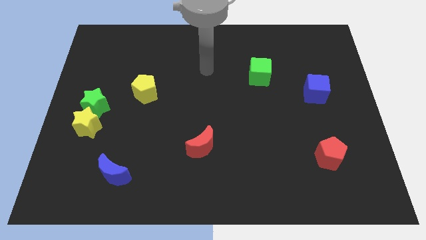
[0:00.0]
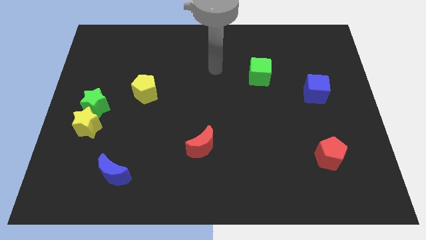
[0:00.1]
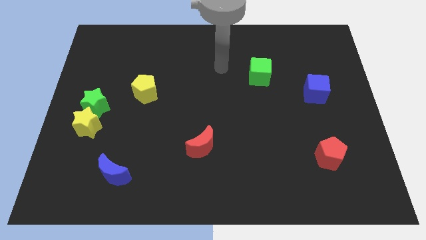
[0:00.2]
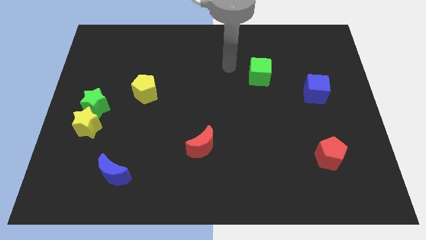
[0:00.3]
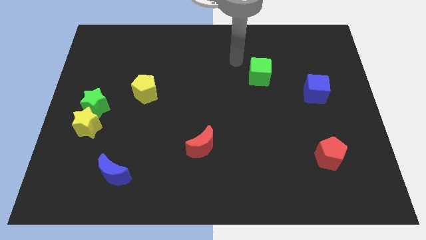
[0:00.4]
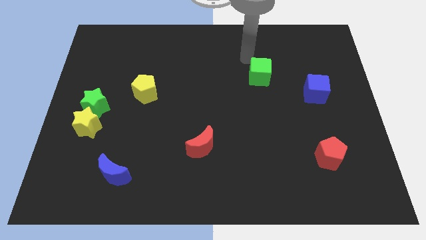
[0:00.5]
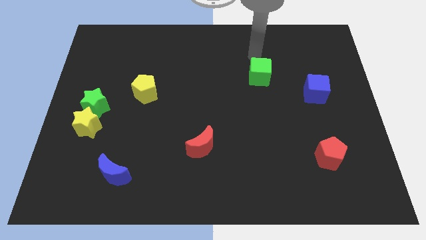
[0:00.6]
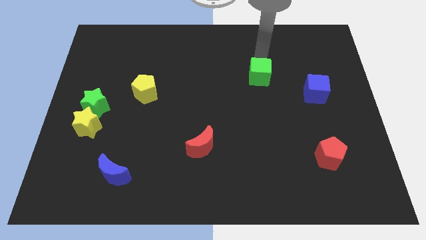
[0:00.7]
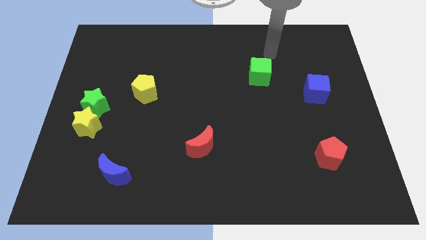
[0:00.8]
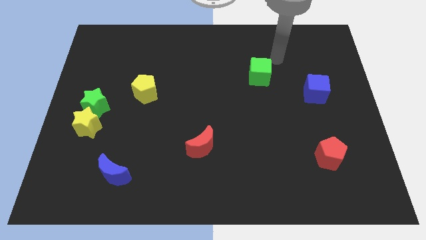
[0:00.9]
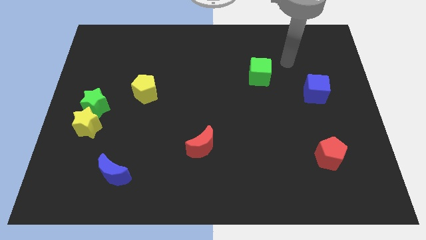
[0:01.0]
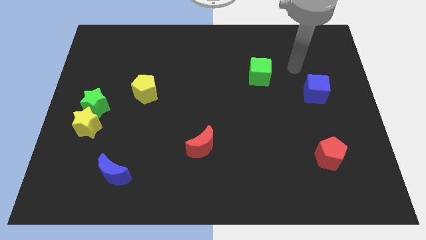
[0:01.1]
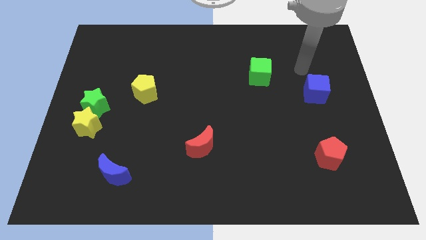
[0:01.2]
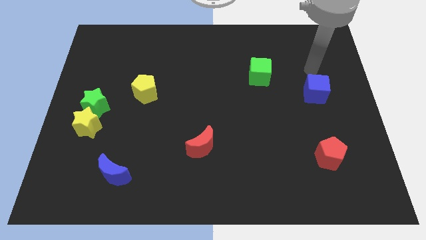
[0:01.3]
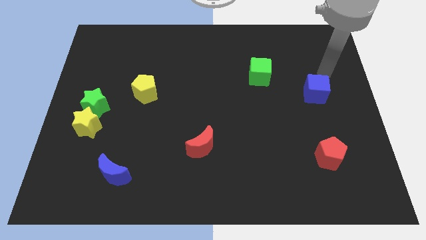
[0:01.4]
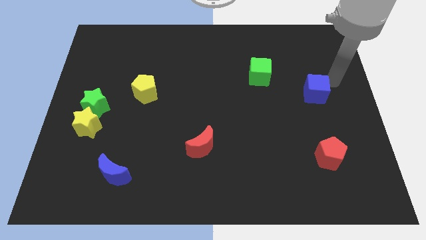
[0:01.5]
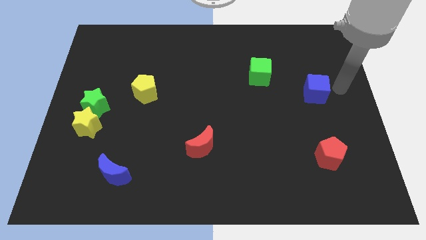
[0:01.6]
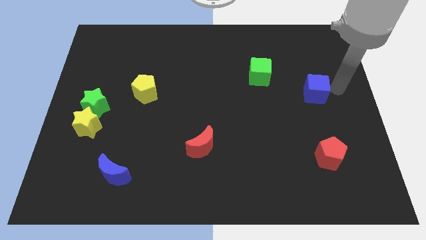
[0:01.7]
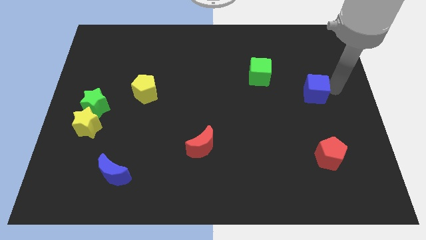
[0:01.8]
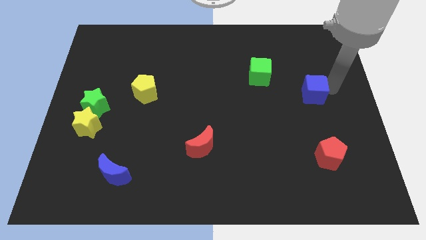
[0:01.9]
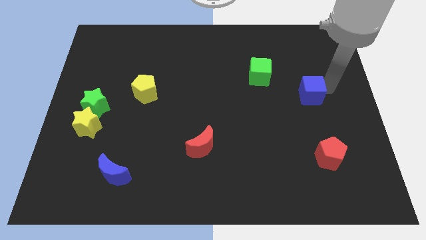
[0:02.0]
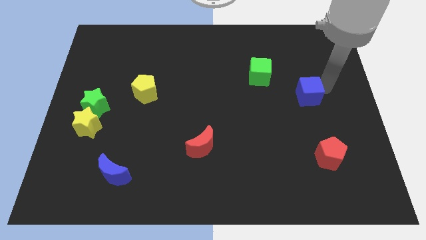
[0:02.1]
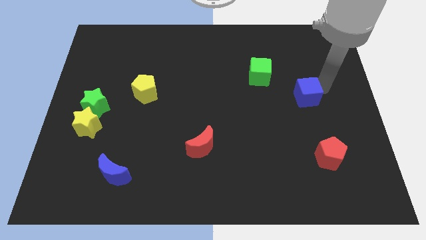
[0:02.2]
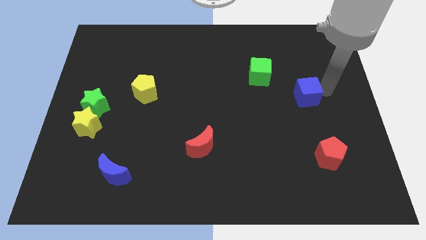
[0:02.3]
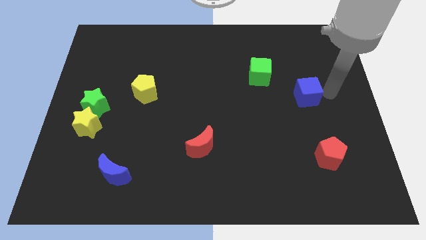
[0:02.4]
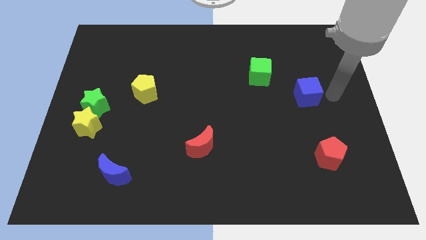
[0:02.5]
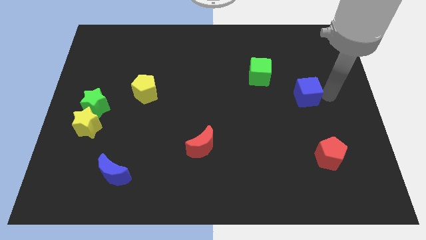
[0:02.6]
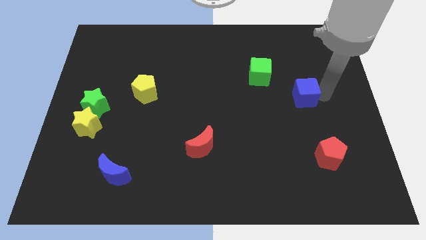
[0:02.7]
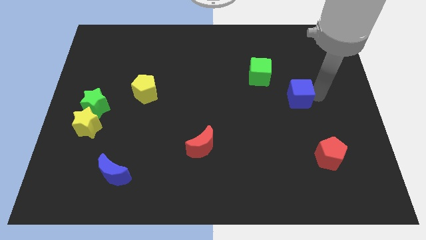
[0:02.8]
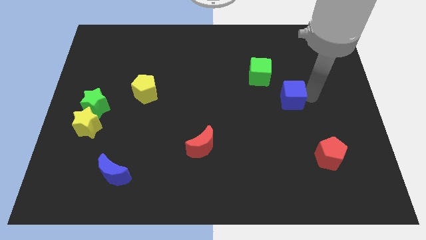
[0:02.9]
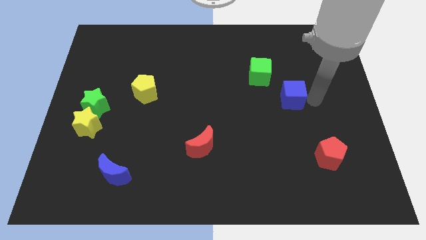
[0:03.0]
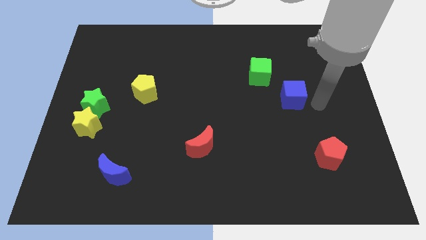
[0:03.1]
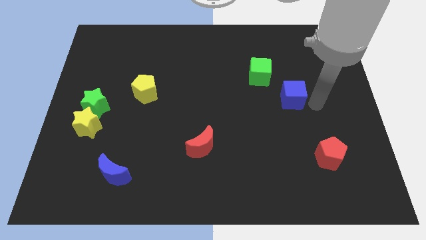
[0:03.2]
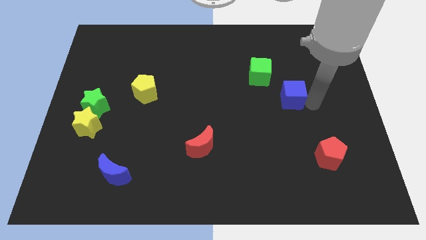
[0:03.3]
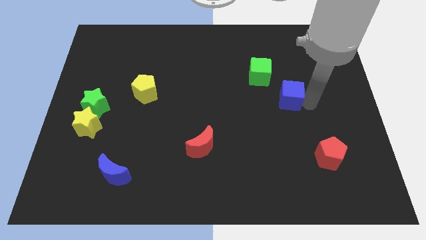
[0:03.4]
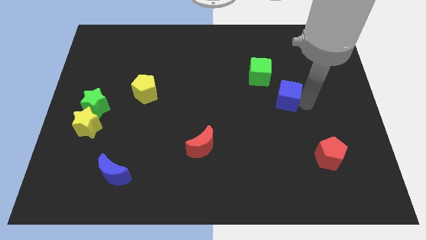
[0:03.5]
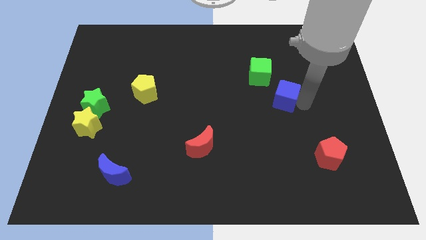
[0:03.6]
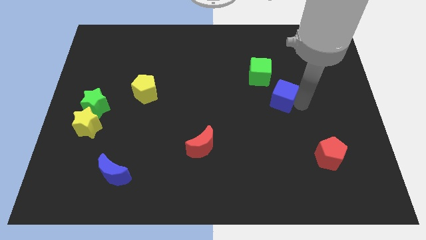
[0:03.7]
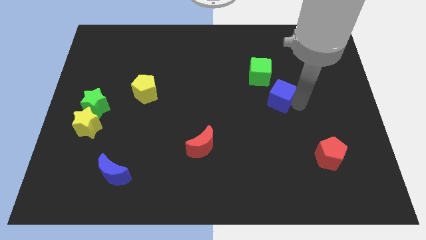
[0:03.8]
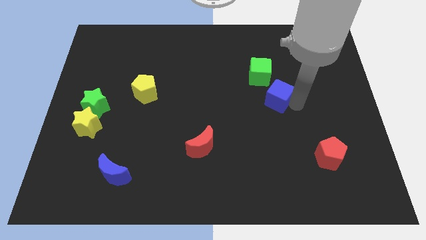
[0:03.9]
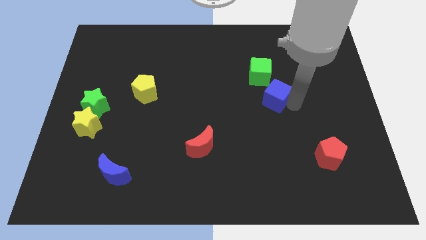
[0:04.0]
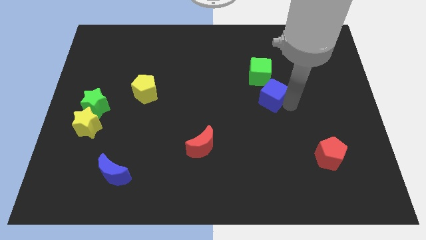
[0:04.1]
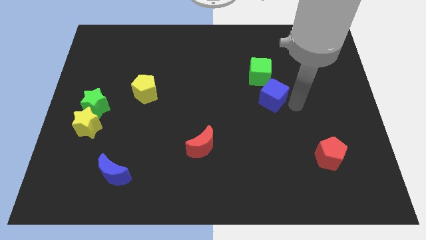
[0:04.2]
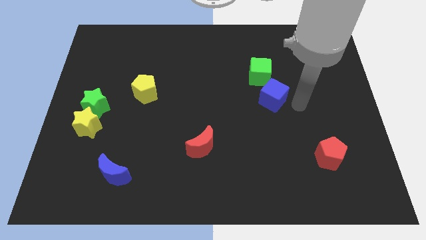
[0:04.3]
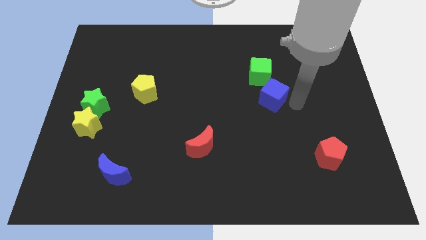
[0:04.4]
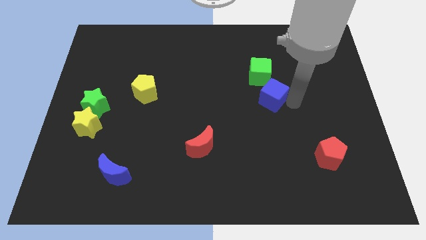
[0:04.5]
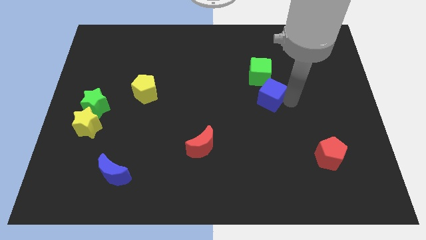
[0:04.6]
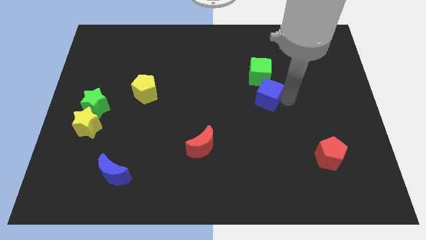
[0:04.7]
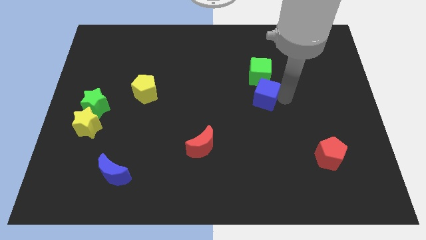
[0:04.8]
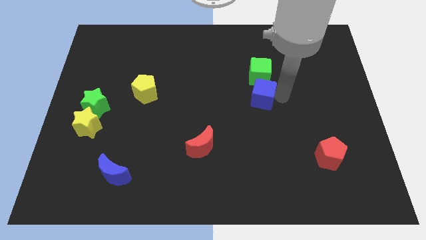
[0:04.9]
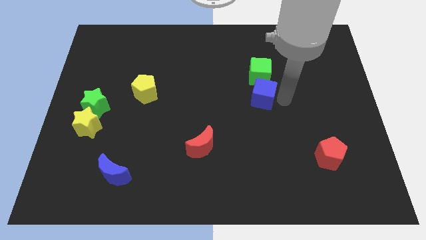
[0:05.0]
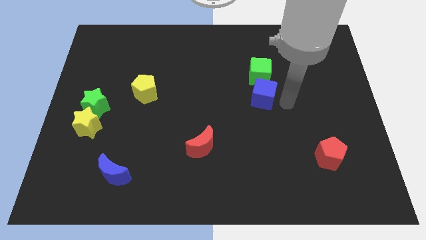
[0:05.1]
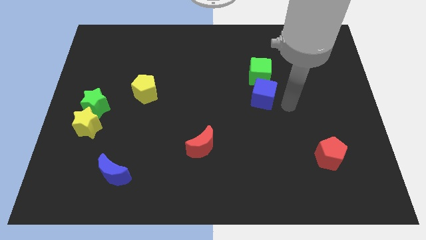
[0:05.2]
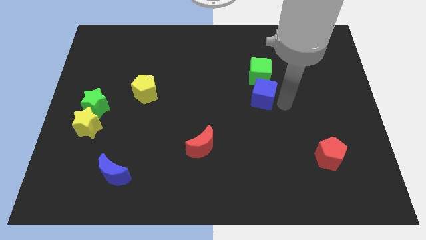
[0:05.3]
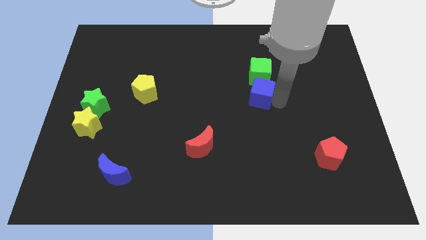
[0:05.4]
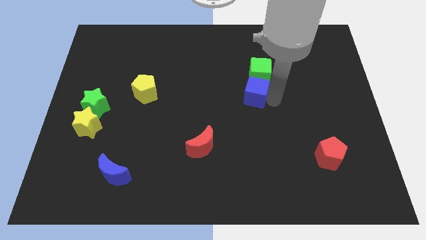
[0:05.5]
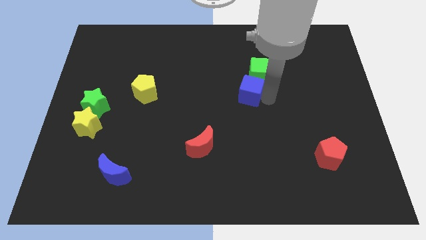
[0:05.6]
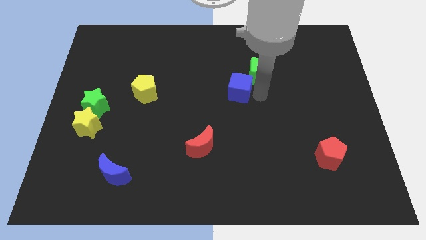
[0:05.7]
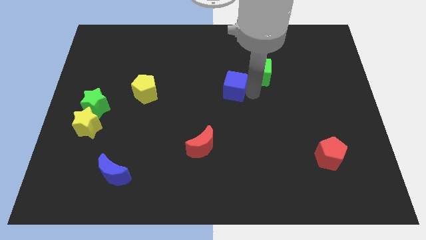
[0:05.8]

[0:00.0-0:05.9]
push the blue cube to the left

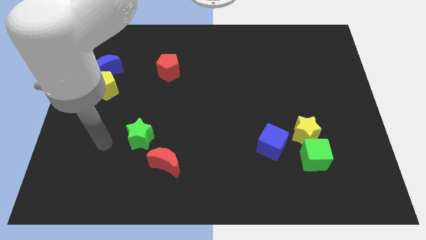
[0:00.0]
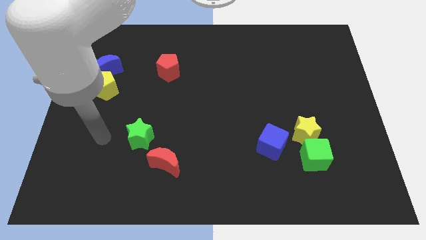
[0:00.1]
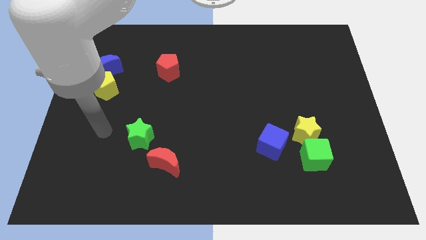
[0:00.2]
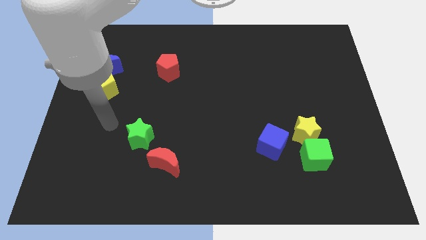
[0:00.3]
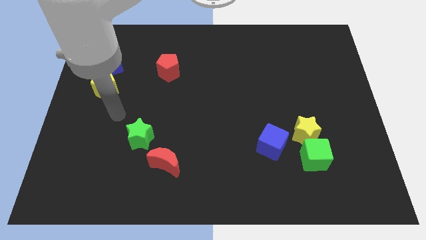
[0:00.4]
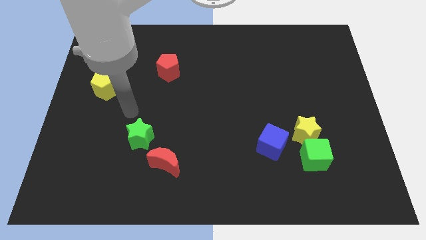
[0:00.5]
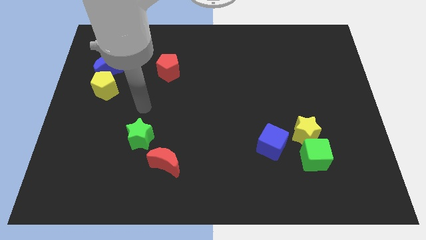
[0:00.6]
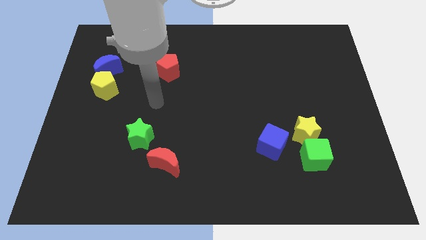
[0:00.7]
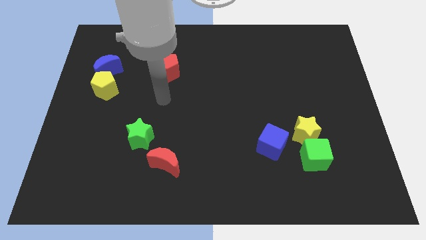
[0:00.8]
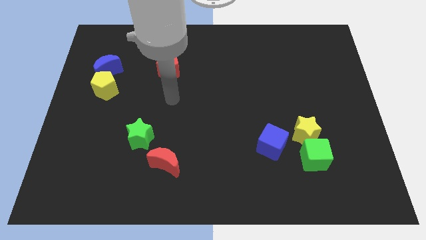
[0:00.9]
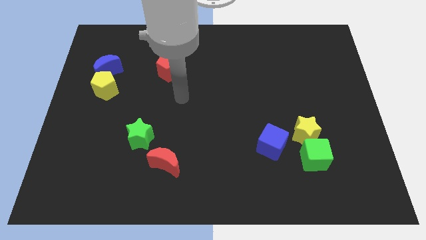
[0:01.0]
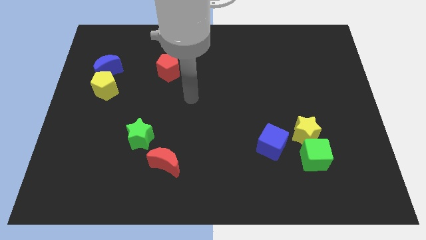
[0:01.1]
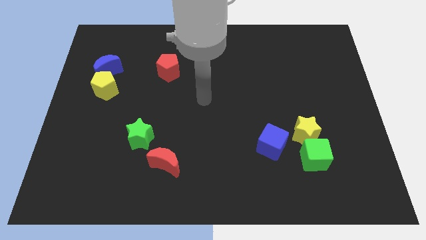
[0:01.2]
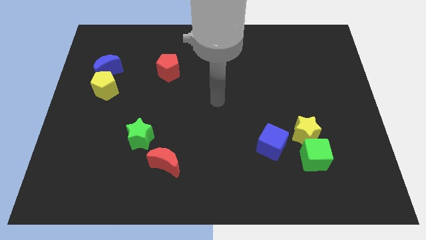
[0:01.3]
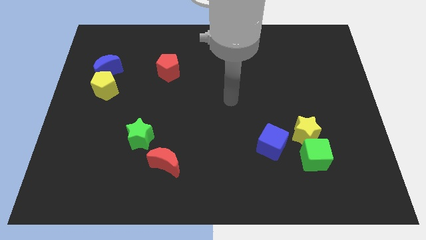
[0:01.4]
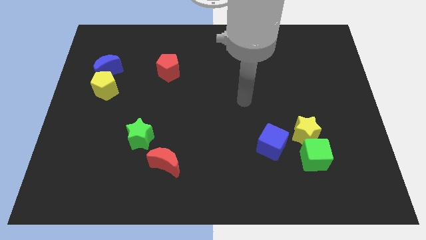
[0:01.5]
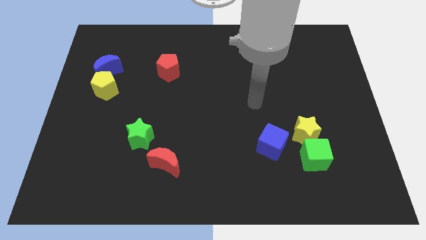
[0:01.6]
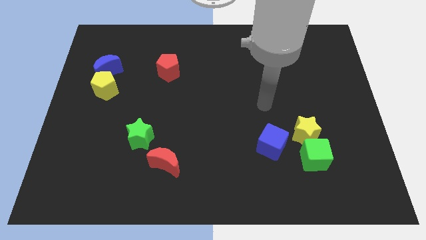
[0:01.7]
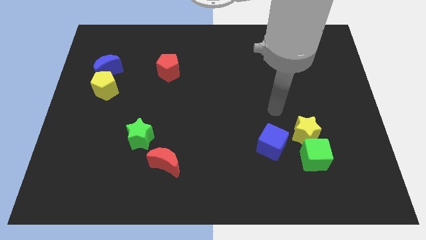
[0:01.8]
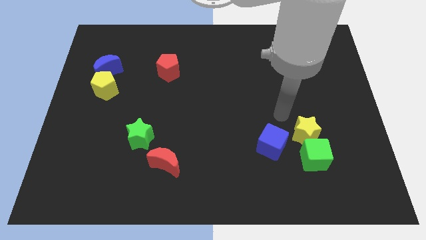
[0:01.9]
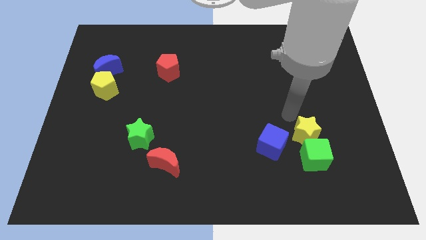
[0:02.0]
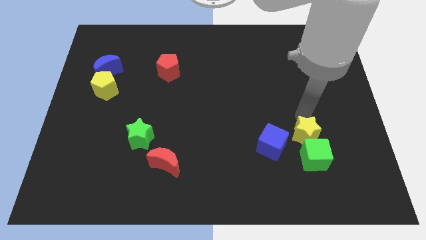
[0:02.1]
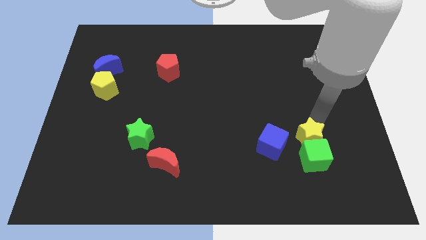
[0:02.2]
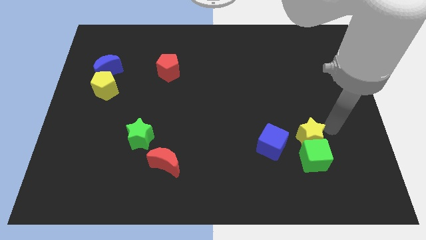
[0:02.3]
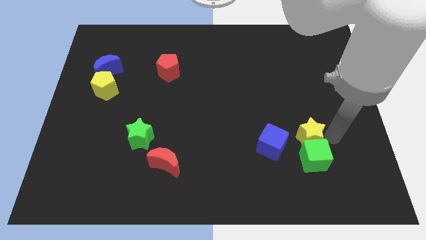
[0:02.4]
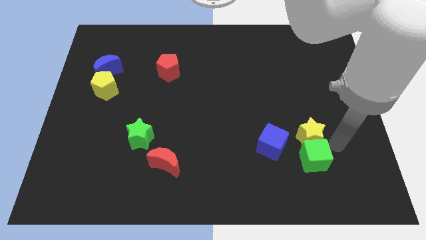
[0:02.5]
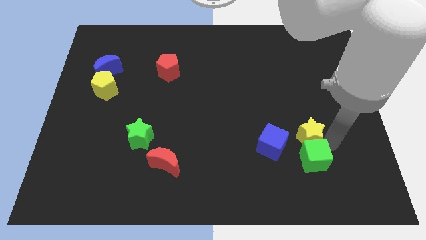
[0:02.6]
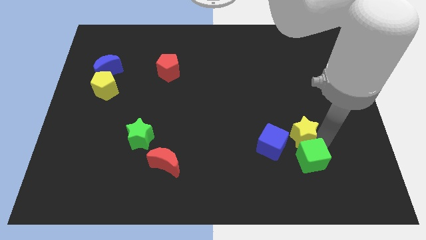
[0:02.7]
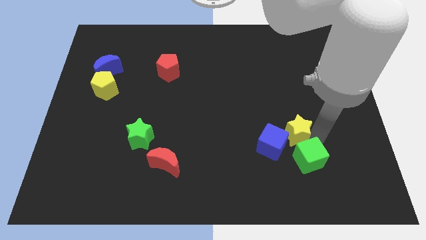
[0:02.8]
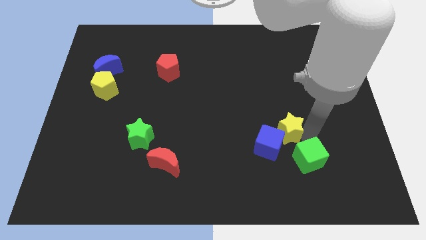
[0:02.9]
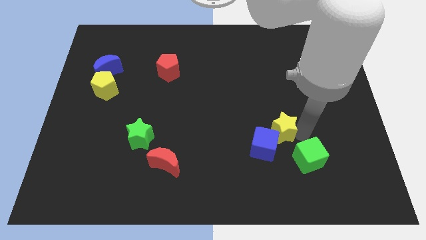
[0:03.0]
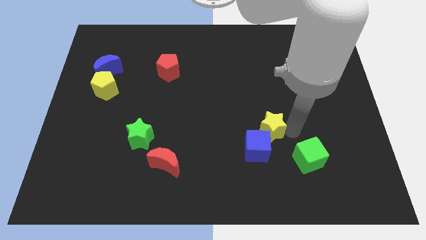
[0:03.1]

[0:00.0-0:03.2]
slightly push the yellow star left
